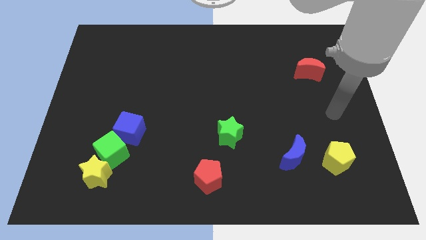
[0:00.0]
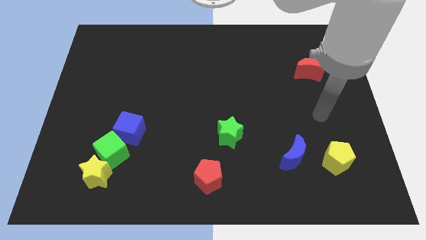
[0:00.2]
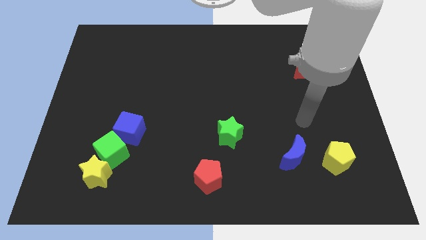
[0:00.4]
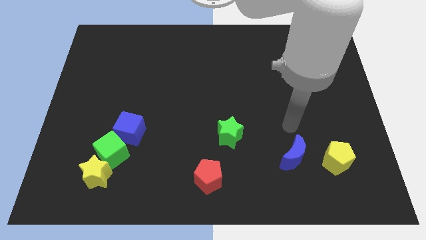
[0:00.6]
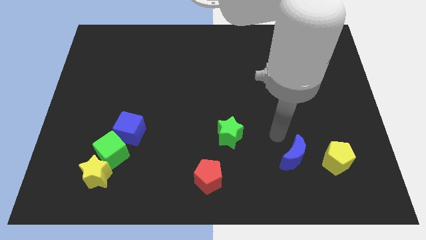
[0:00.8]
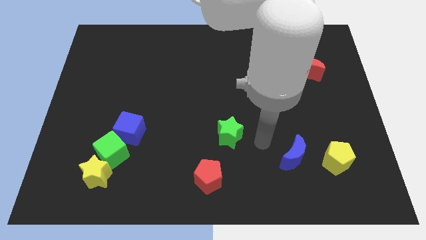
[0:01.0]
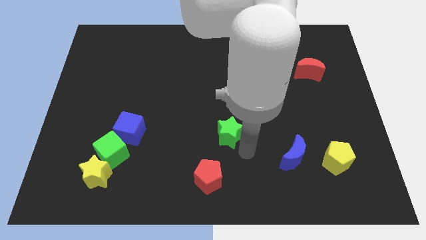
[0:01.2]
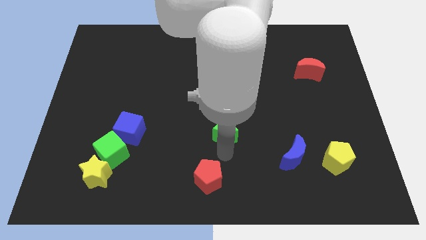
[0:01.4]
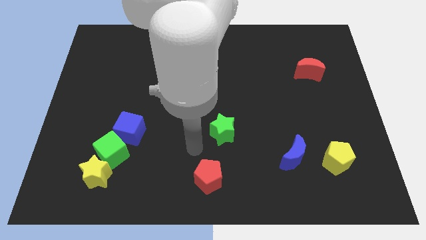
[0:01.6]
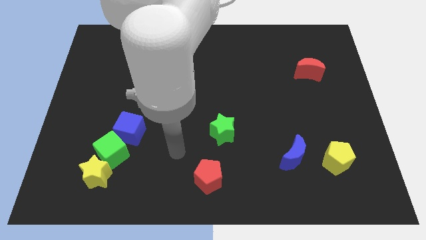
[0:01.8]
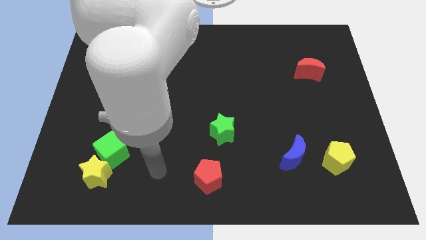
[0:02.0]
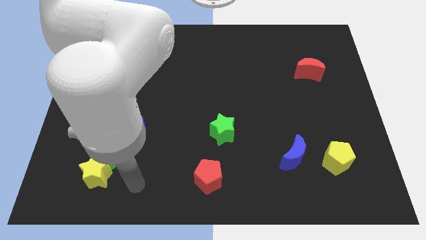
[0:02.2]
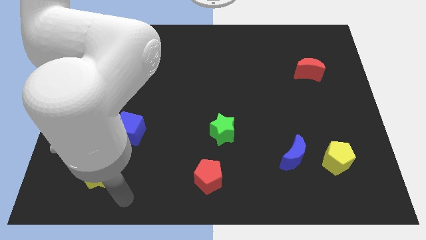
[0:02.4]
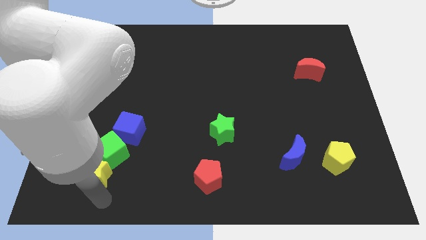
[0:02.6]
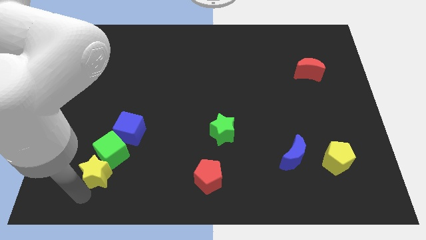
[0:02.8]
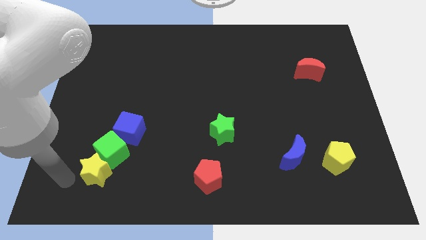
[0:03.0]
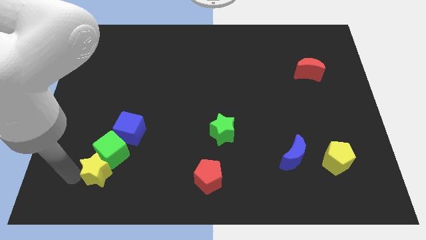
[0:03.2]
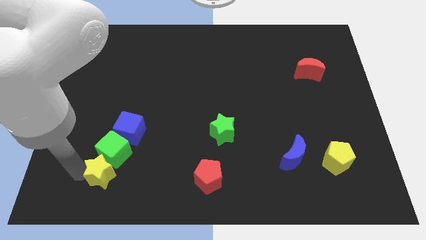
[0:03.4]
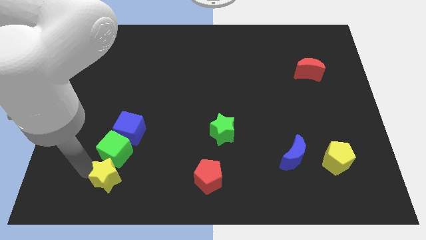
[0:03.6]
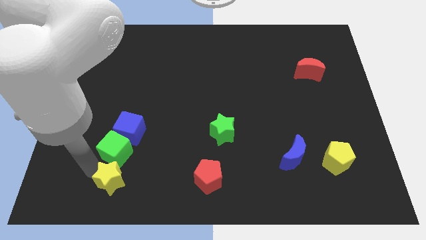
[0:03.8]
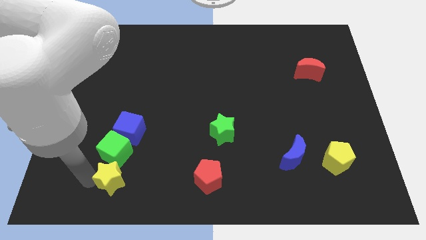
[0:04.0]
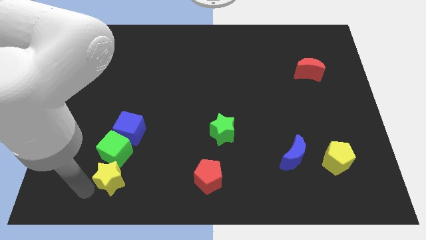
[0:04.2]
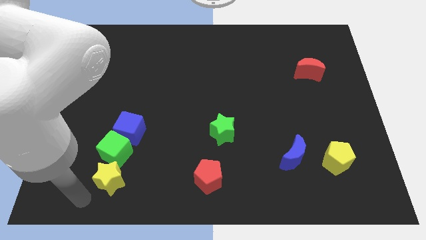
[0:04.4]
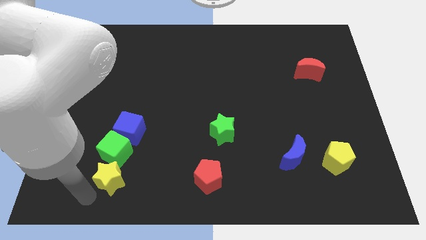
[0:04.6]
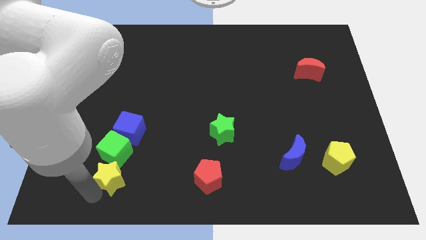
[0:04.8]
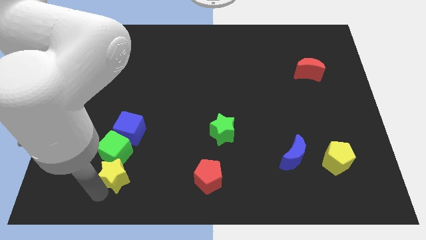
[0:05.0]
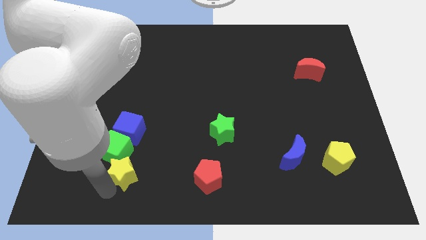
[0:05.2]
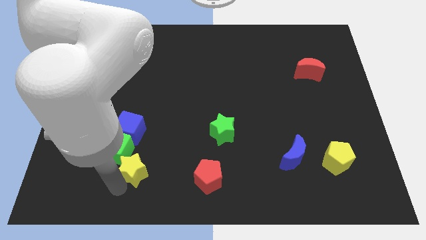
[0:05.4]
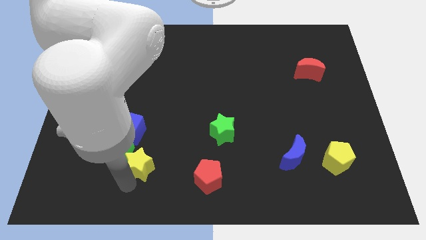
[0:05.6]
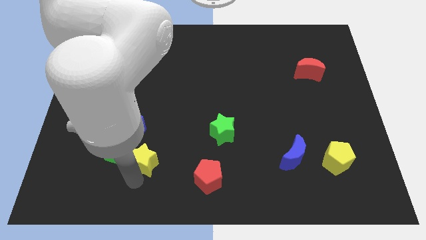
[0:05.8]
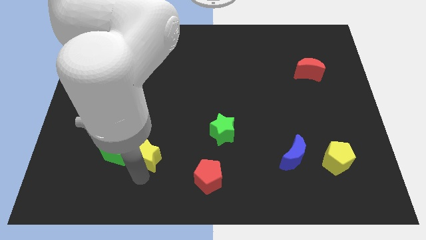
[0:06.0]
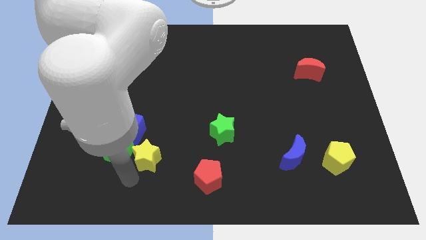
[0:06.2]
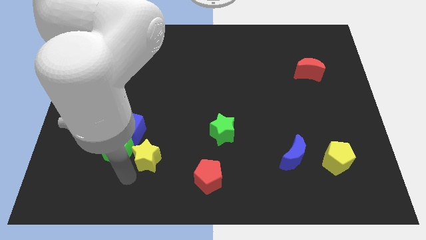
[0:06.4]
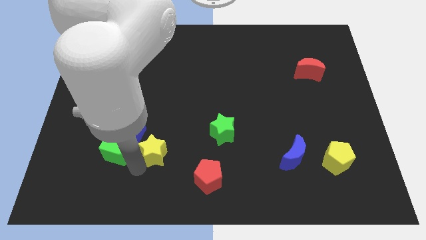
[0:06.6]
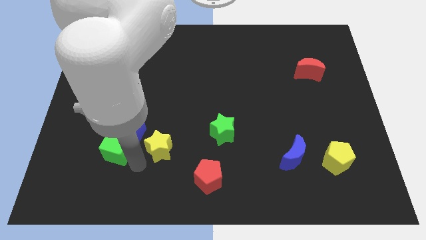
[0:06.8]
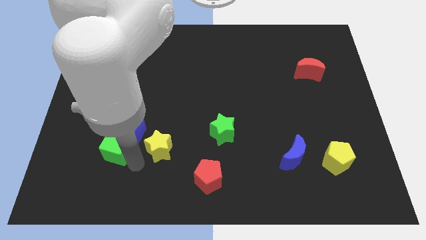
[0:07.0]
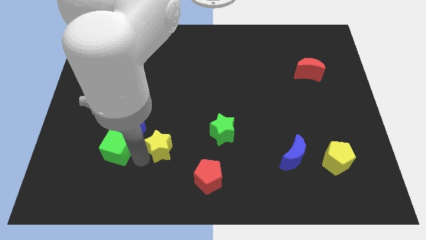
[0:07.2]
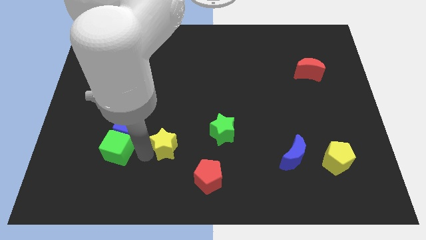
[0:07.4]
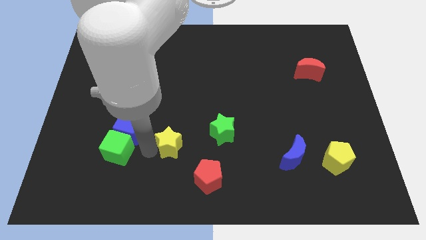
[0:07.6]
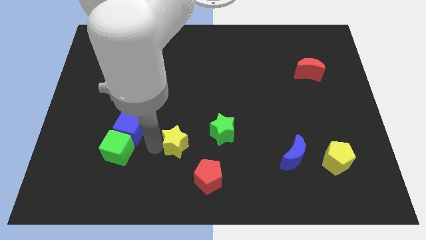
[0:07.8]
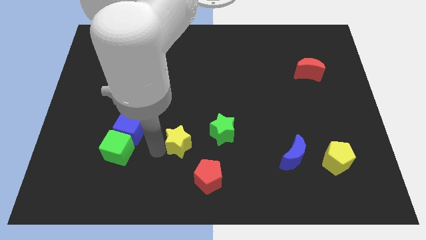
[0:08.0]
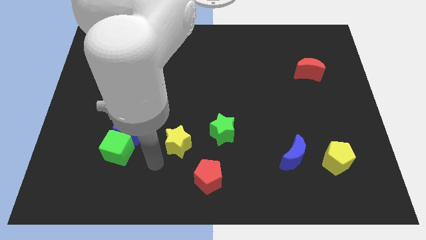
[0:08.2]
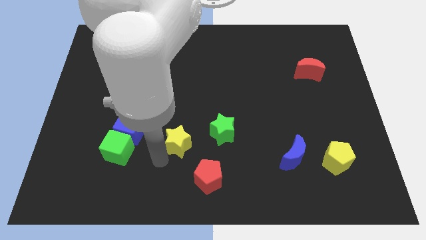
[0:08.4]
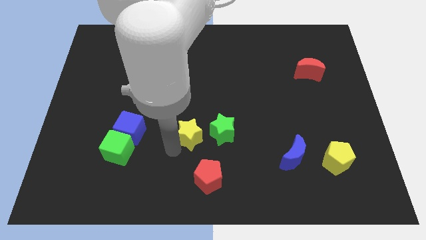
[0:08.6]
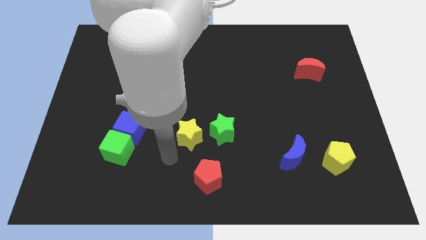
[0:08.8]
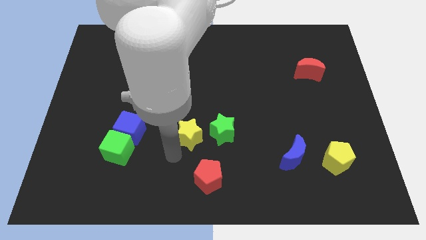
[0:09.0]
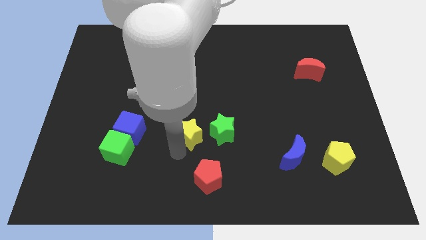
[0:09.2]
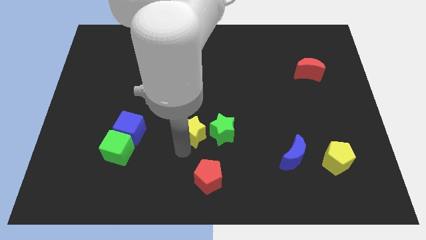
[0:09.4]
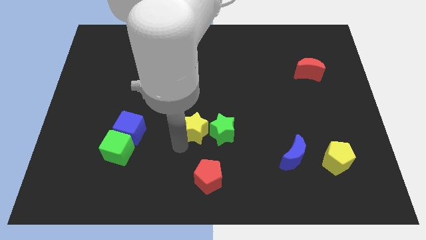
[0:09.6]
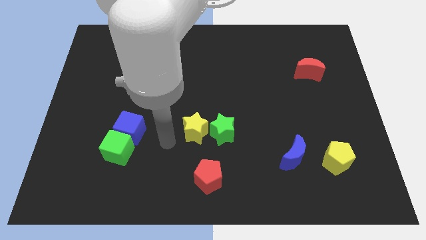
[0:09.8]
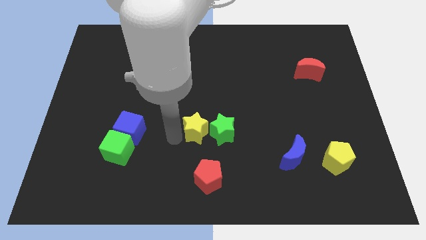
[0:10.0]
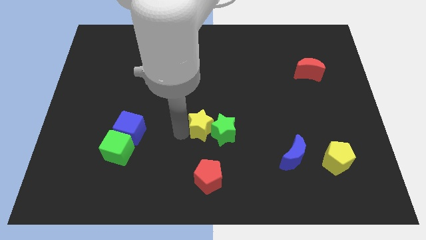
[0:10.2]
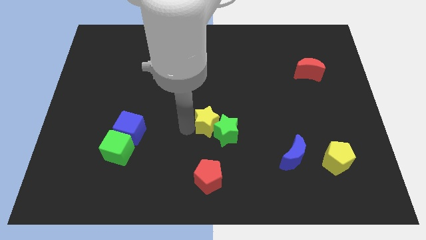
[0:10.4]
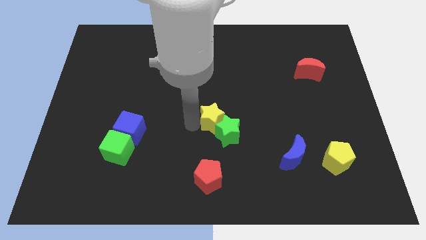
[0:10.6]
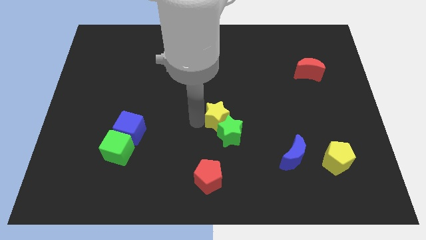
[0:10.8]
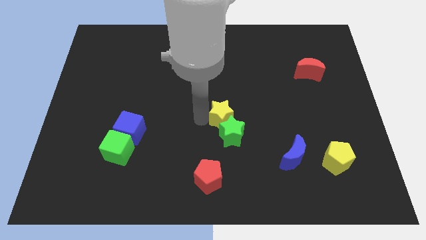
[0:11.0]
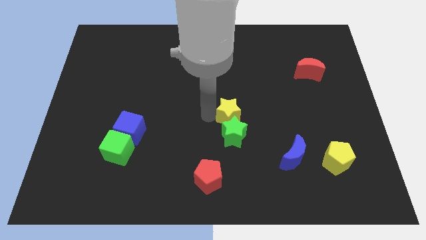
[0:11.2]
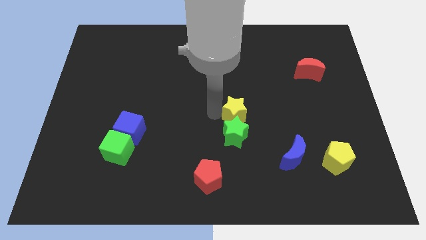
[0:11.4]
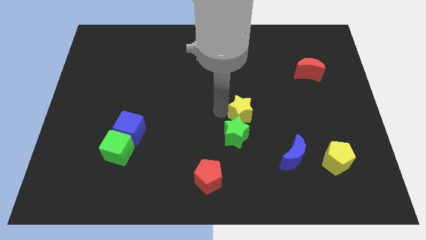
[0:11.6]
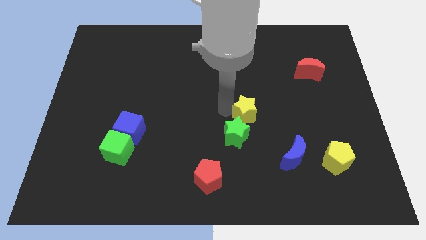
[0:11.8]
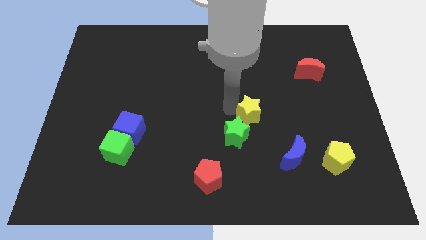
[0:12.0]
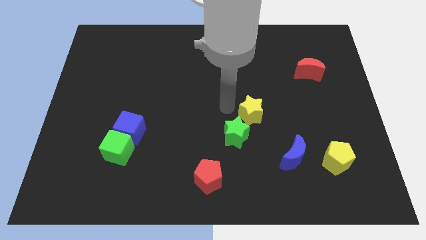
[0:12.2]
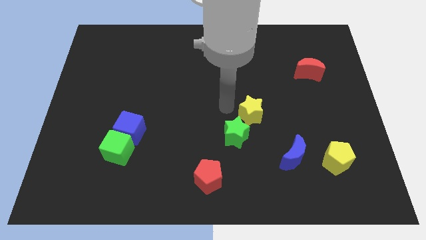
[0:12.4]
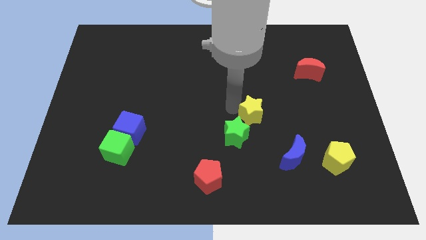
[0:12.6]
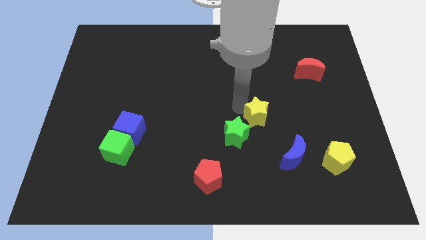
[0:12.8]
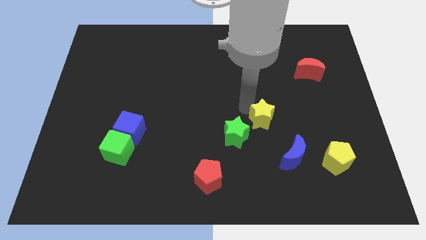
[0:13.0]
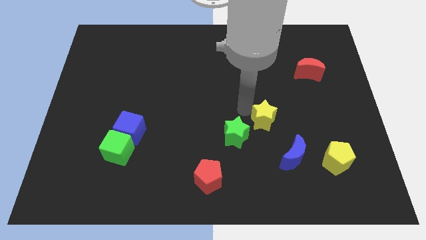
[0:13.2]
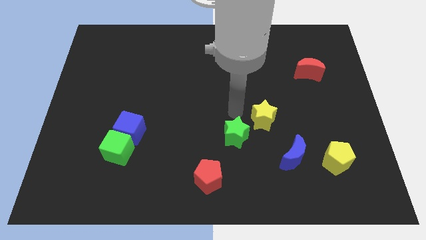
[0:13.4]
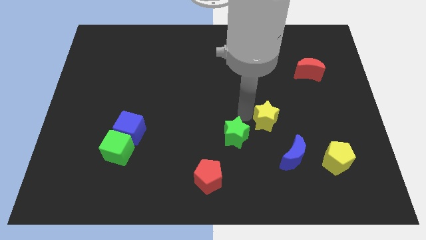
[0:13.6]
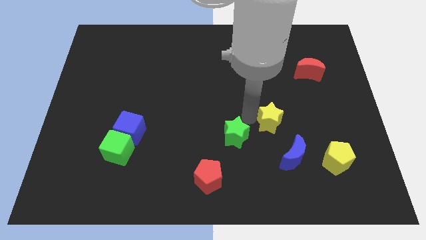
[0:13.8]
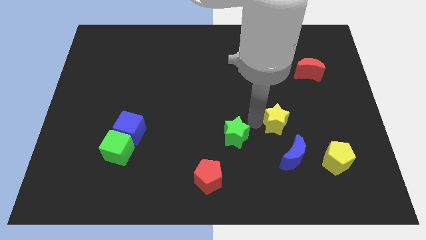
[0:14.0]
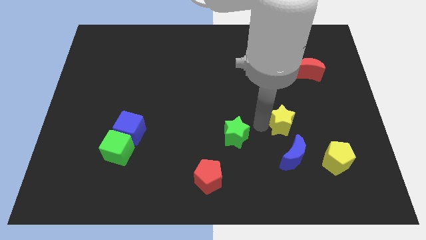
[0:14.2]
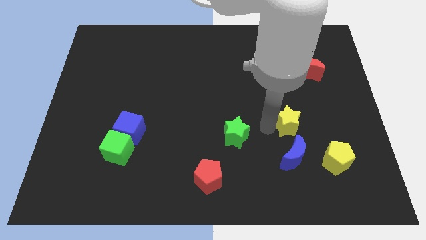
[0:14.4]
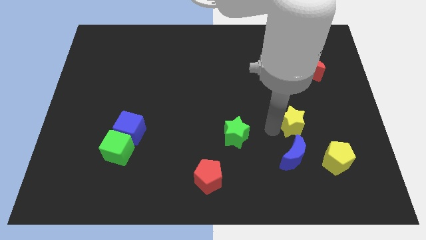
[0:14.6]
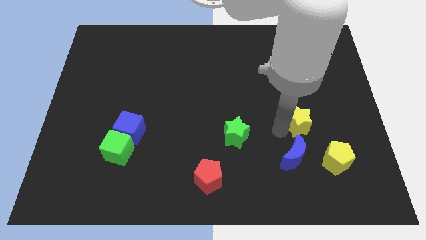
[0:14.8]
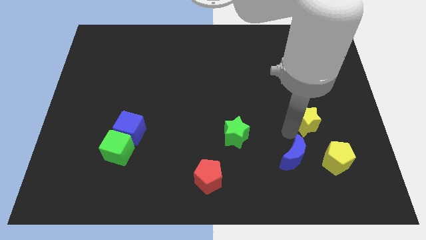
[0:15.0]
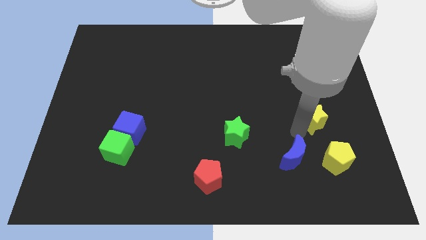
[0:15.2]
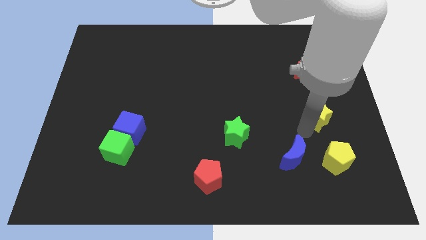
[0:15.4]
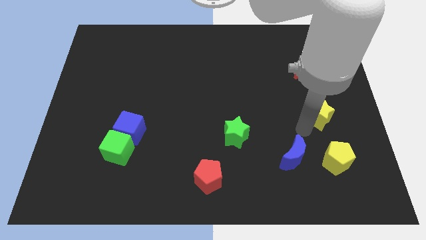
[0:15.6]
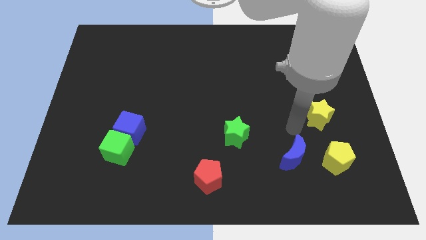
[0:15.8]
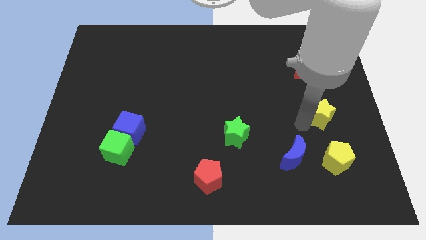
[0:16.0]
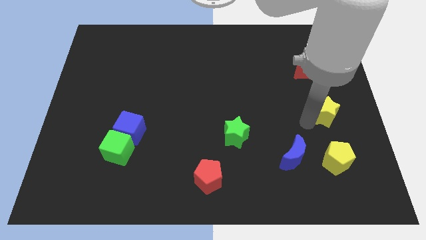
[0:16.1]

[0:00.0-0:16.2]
put the yellow star to the right side of the board
